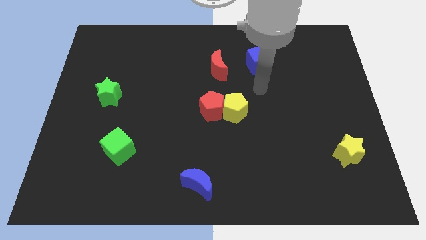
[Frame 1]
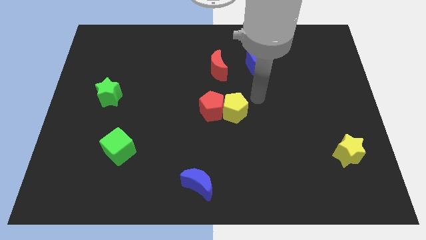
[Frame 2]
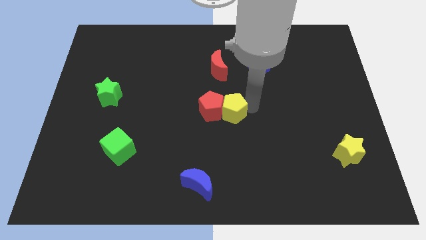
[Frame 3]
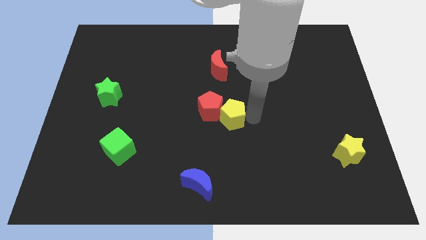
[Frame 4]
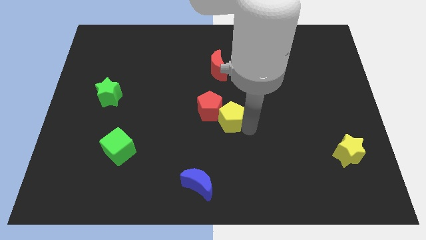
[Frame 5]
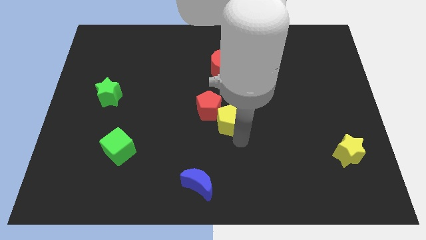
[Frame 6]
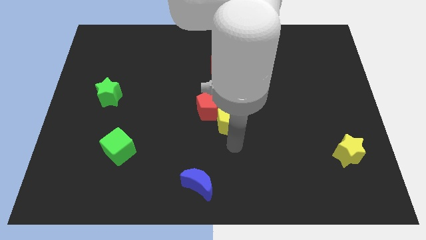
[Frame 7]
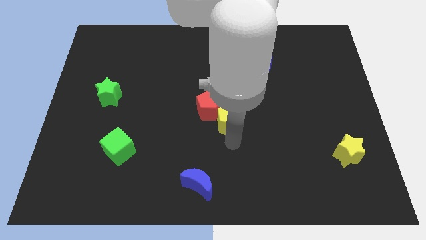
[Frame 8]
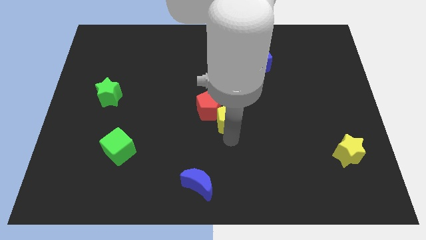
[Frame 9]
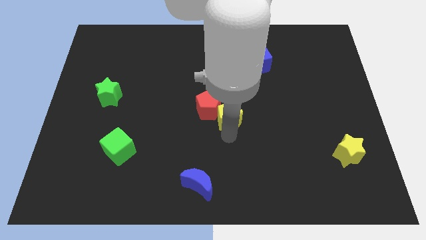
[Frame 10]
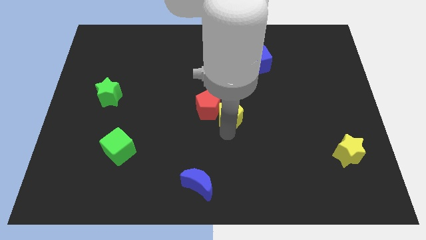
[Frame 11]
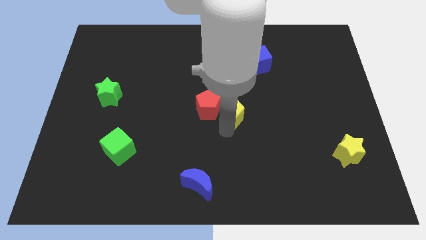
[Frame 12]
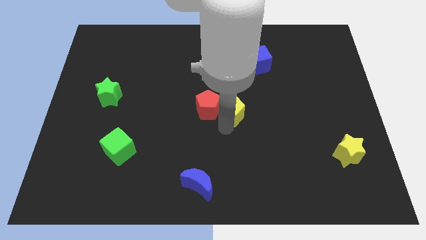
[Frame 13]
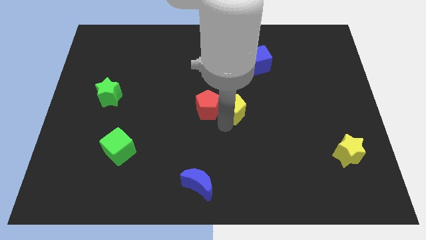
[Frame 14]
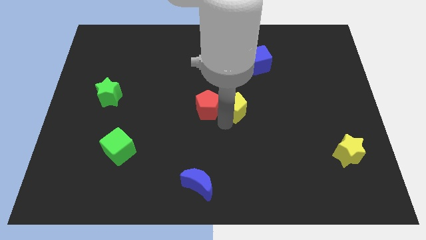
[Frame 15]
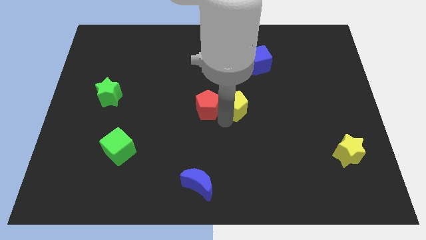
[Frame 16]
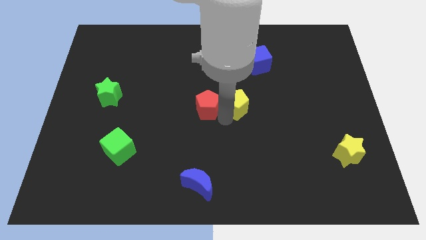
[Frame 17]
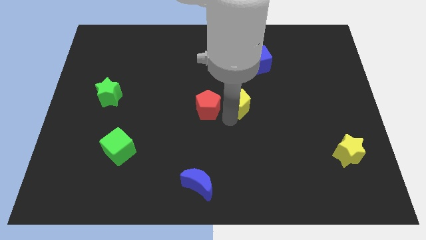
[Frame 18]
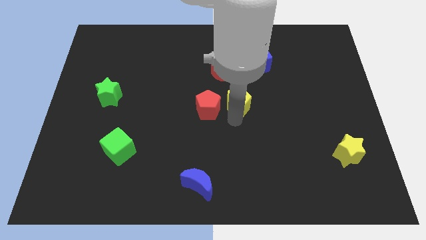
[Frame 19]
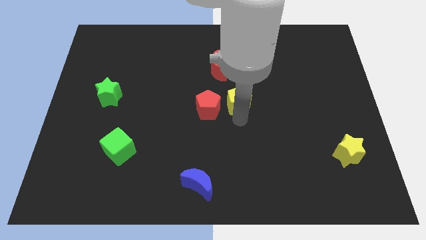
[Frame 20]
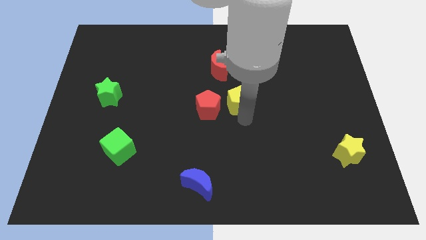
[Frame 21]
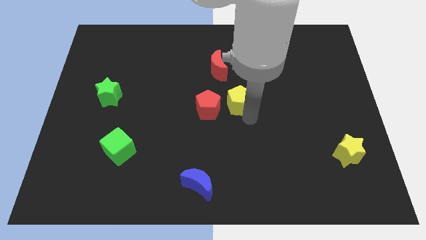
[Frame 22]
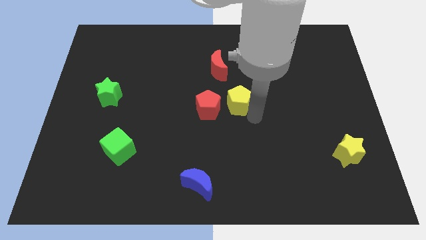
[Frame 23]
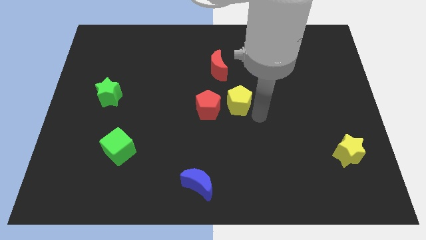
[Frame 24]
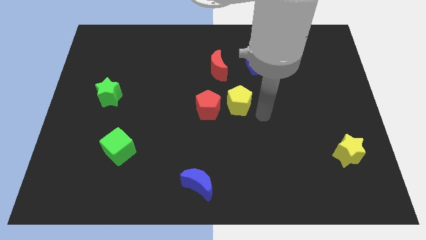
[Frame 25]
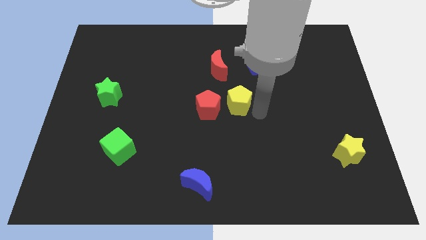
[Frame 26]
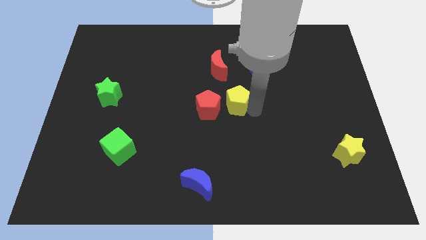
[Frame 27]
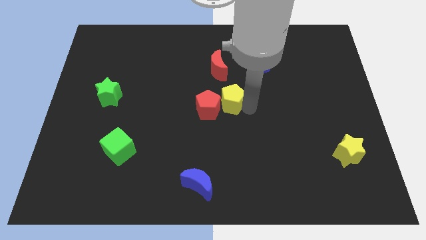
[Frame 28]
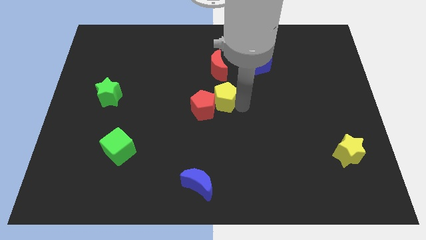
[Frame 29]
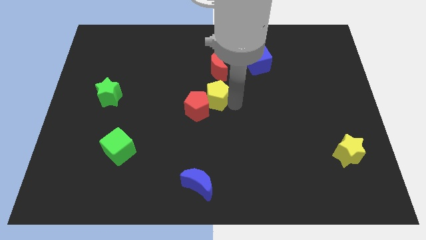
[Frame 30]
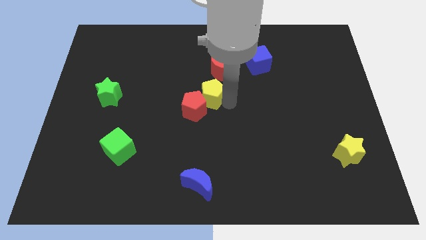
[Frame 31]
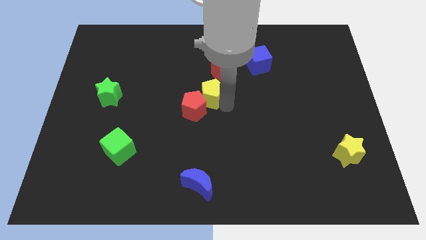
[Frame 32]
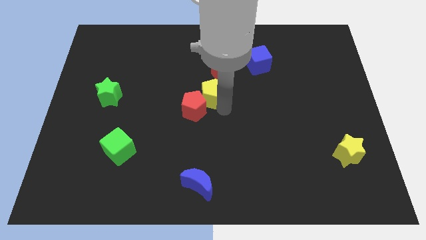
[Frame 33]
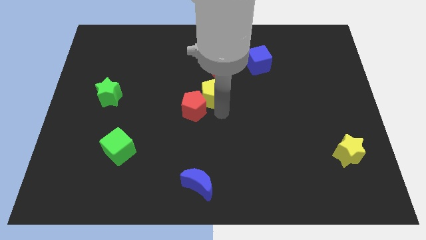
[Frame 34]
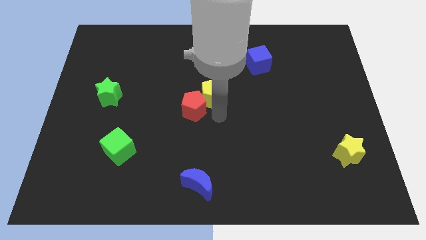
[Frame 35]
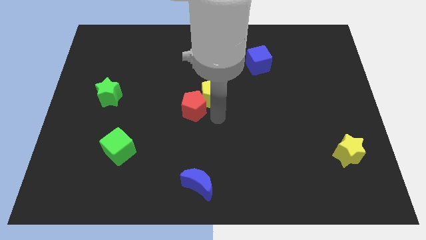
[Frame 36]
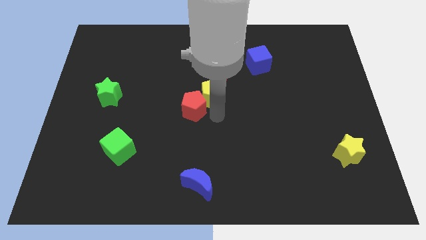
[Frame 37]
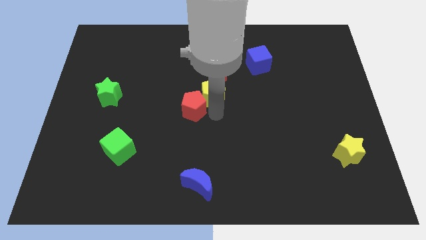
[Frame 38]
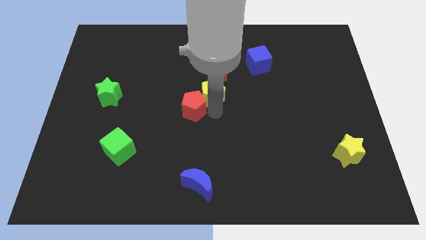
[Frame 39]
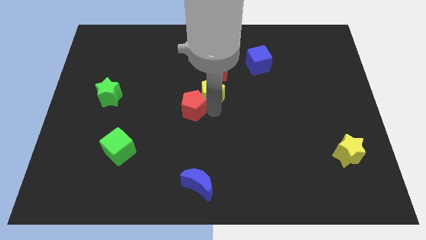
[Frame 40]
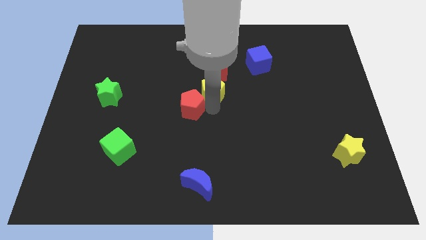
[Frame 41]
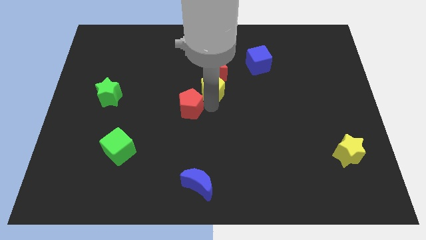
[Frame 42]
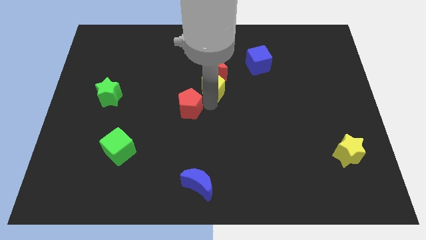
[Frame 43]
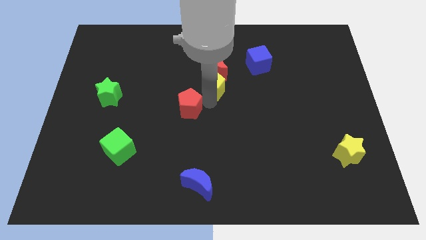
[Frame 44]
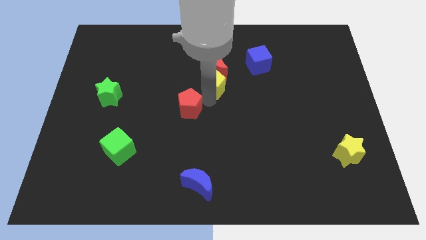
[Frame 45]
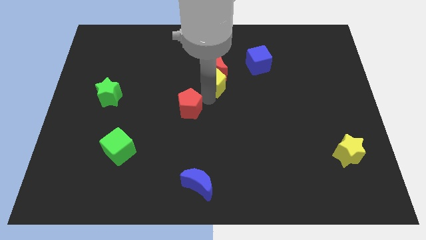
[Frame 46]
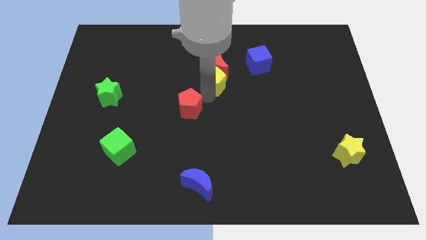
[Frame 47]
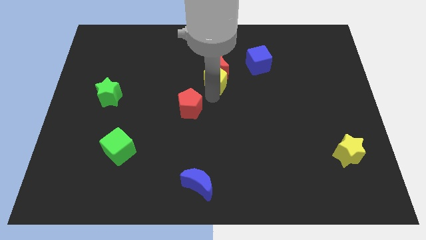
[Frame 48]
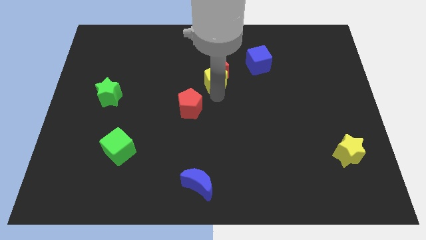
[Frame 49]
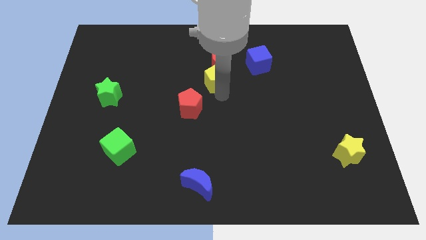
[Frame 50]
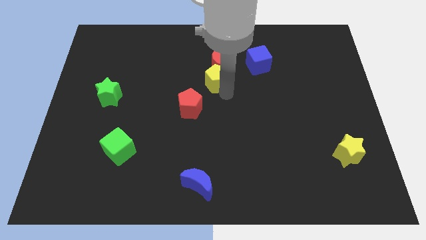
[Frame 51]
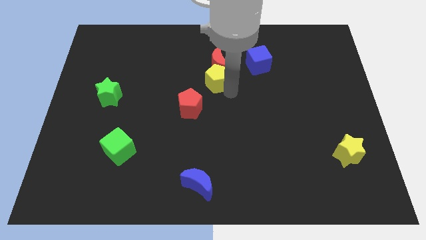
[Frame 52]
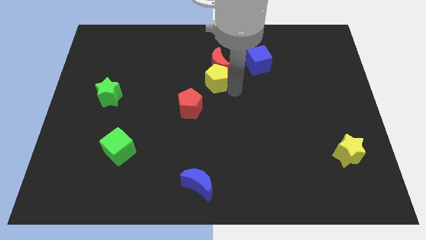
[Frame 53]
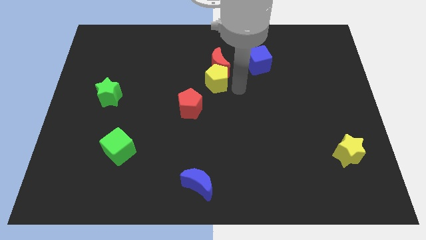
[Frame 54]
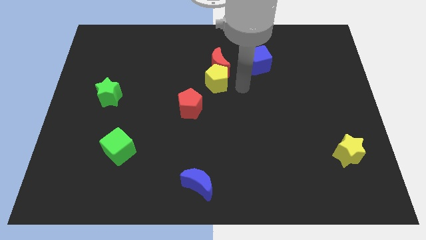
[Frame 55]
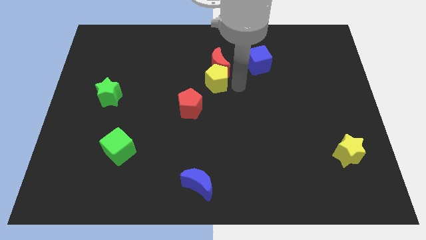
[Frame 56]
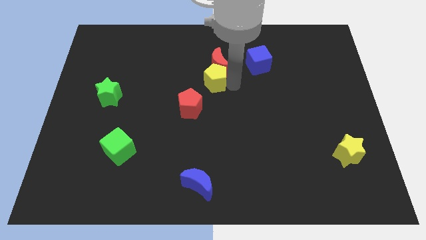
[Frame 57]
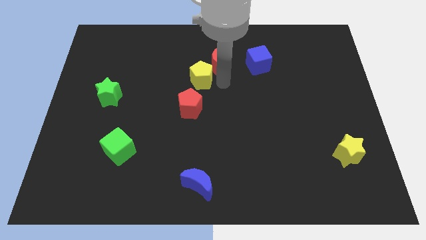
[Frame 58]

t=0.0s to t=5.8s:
push the yellow pentagon left of the red moon

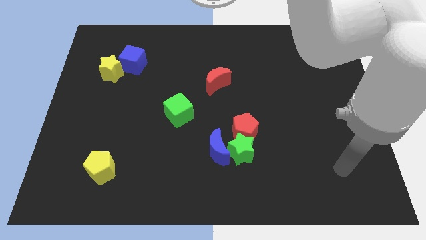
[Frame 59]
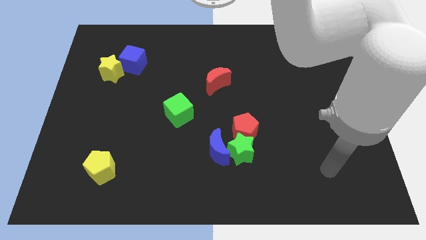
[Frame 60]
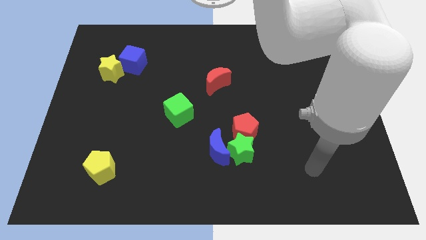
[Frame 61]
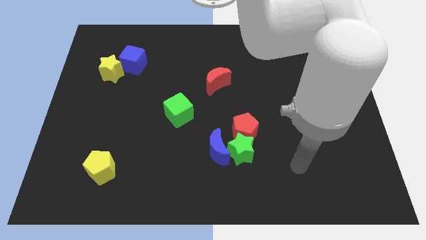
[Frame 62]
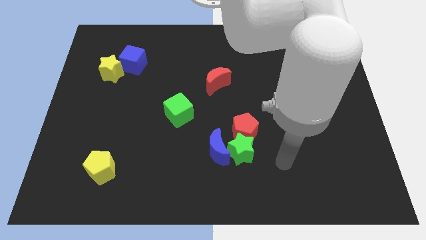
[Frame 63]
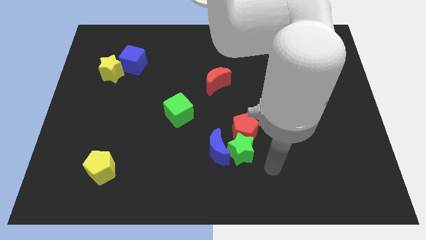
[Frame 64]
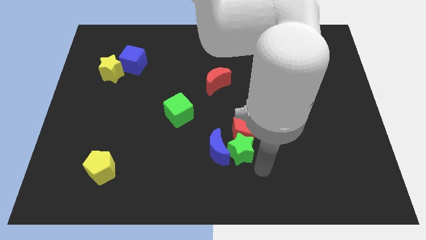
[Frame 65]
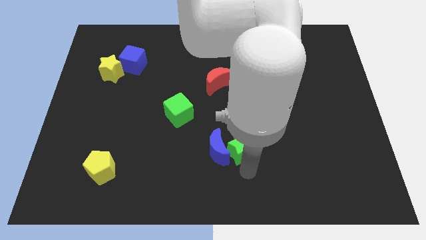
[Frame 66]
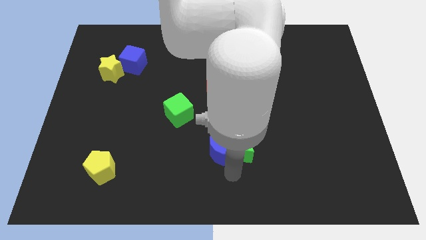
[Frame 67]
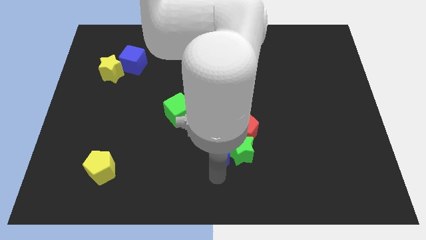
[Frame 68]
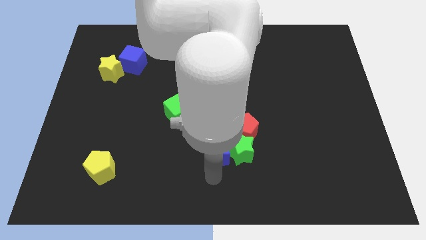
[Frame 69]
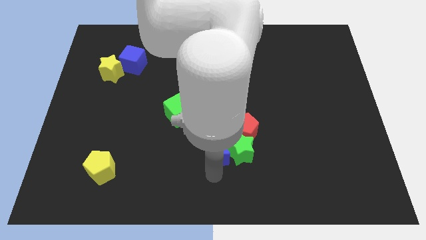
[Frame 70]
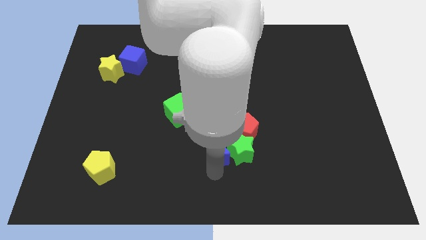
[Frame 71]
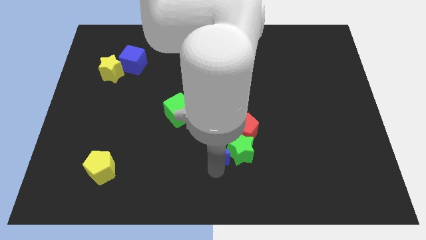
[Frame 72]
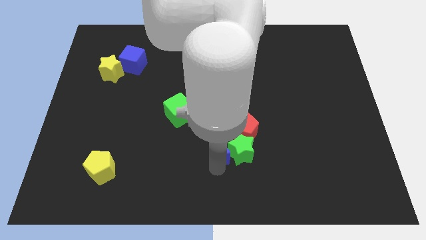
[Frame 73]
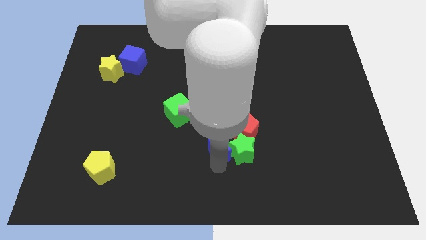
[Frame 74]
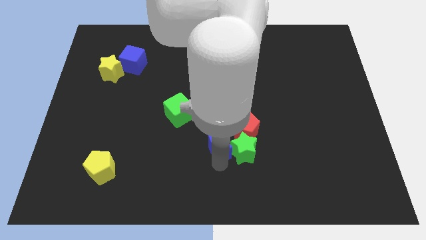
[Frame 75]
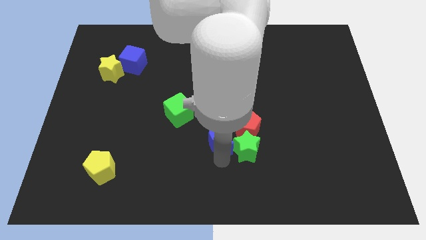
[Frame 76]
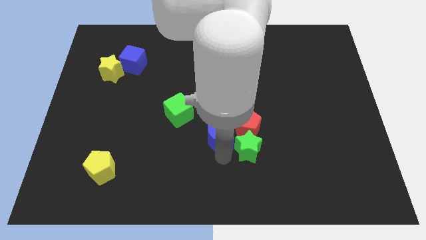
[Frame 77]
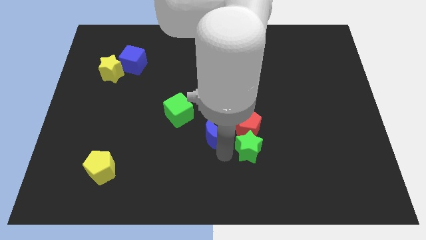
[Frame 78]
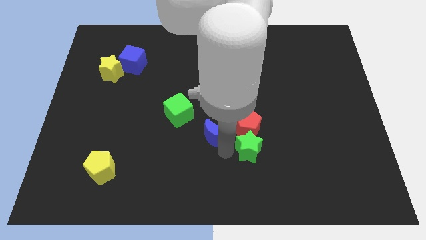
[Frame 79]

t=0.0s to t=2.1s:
put the blue moon to the bottom of the red moon
